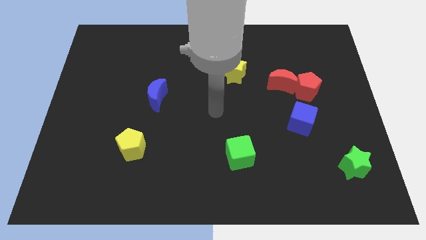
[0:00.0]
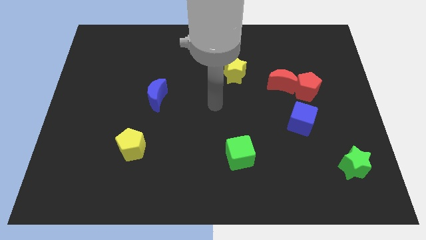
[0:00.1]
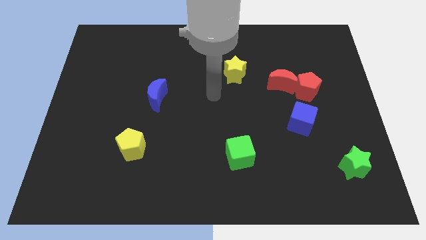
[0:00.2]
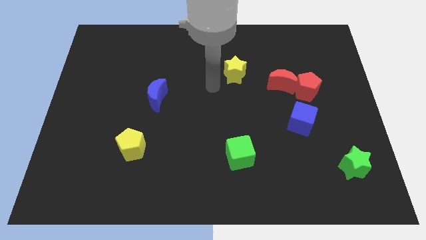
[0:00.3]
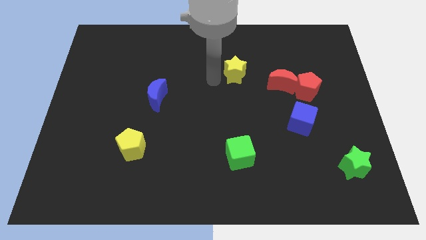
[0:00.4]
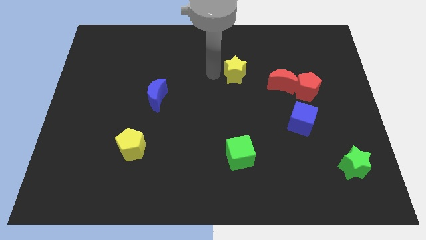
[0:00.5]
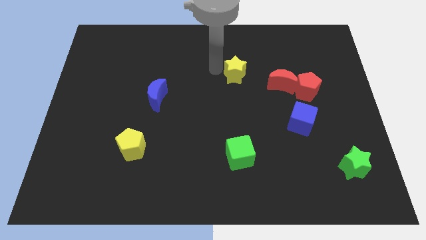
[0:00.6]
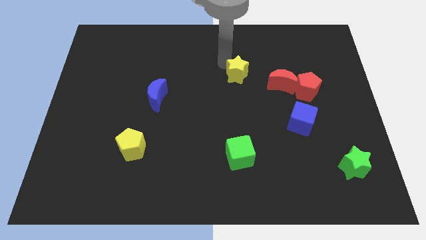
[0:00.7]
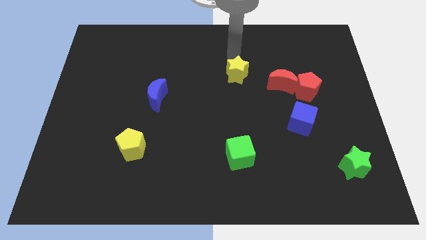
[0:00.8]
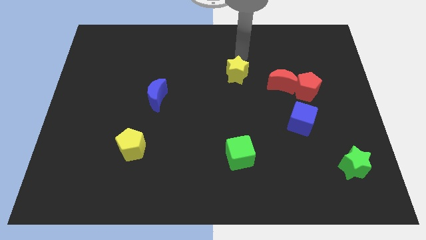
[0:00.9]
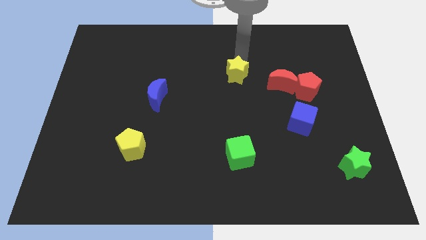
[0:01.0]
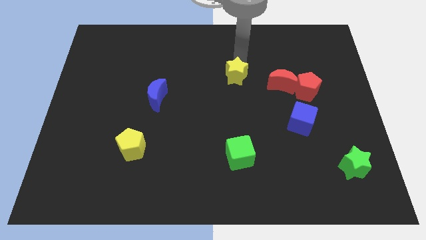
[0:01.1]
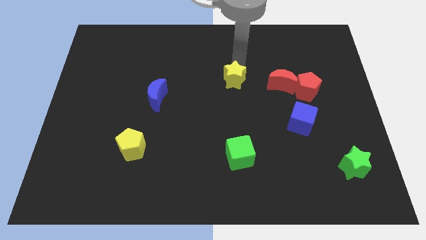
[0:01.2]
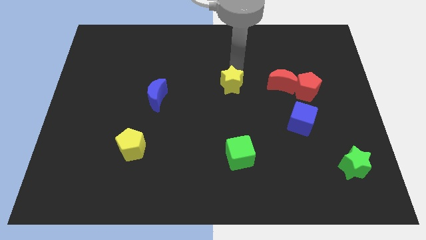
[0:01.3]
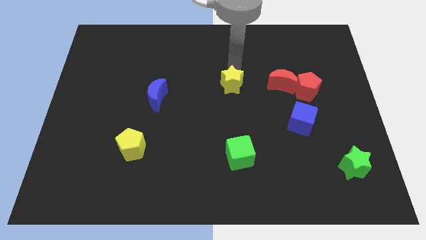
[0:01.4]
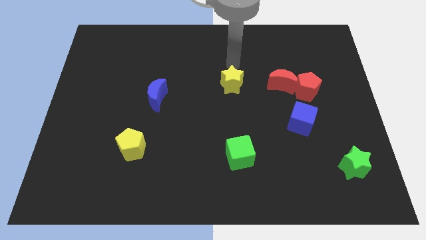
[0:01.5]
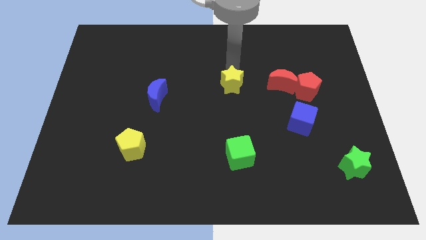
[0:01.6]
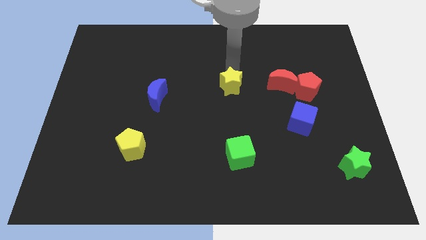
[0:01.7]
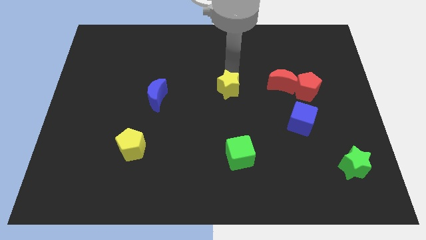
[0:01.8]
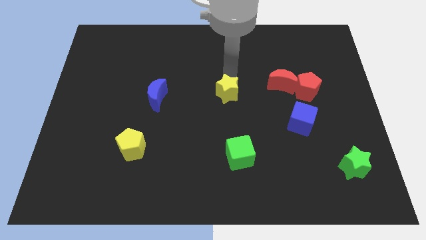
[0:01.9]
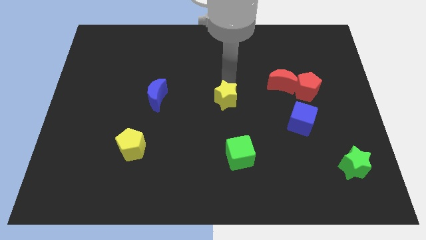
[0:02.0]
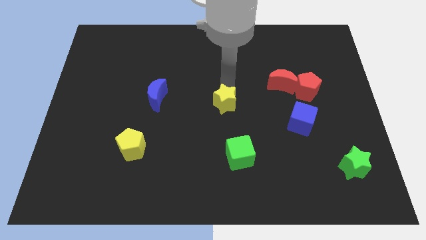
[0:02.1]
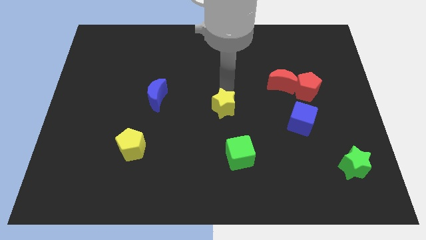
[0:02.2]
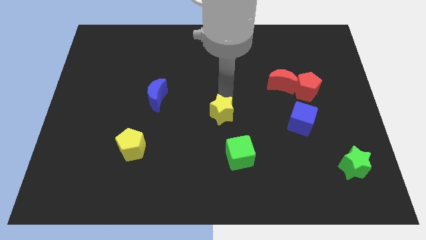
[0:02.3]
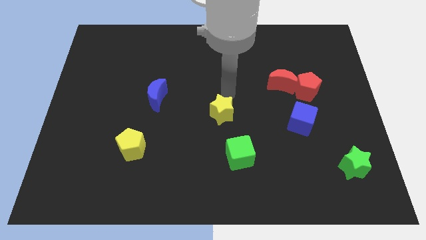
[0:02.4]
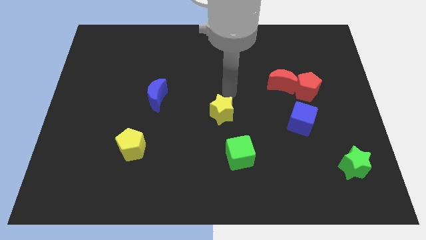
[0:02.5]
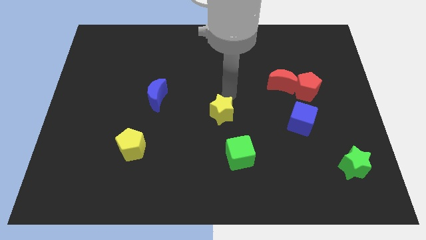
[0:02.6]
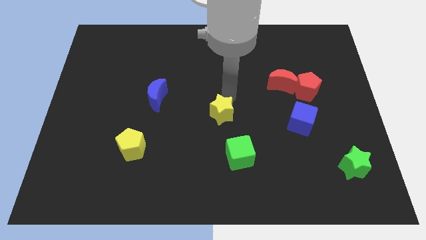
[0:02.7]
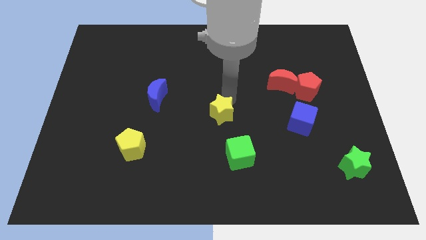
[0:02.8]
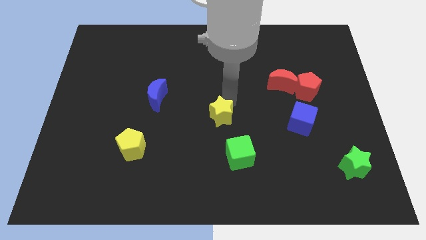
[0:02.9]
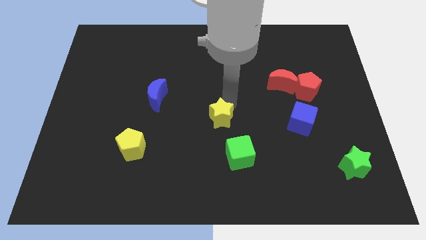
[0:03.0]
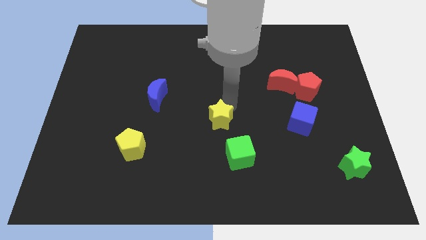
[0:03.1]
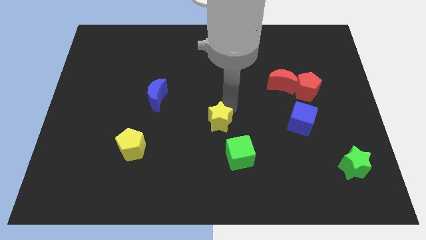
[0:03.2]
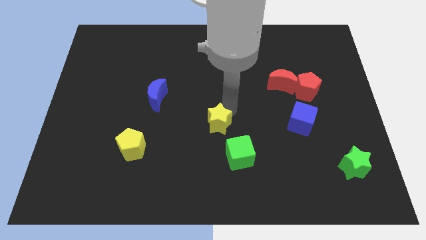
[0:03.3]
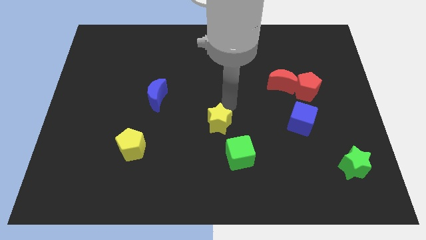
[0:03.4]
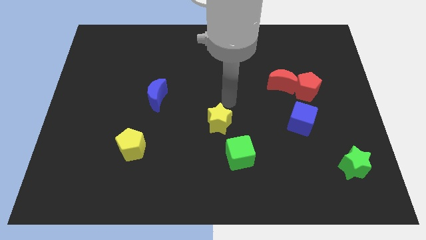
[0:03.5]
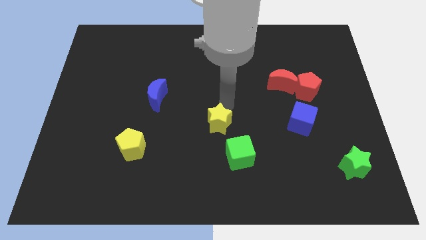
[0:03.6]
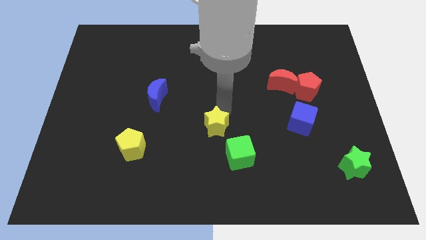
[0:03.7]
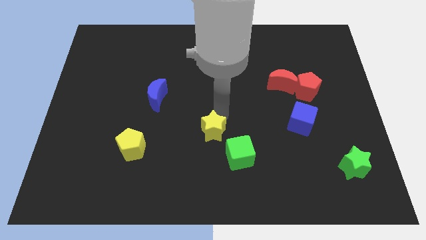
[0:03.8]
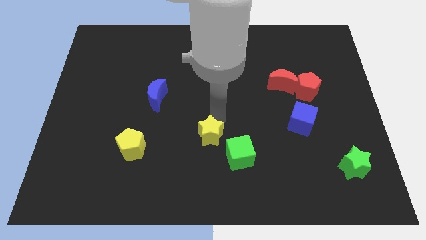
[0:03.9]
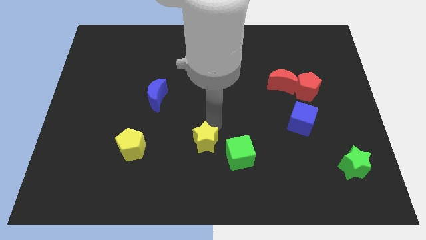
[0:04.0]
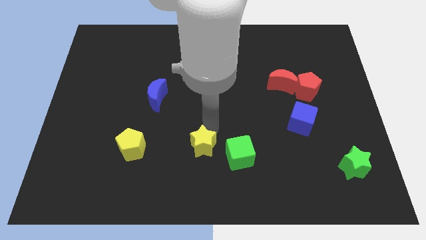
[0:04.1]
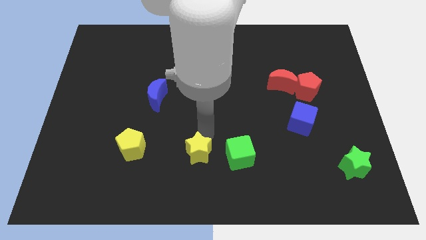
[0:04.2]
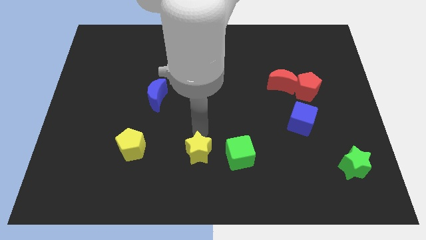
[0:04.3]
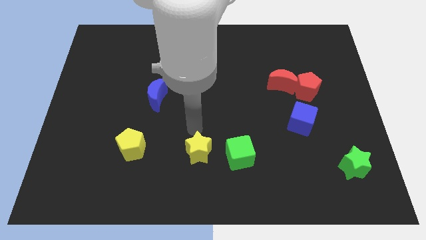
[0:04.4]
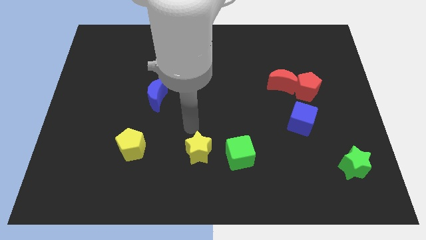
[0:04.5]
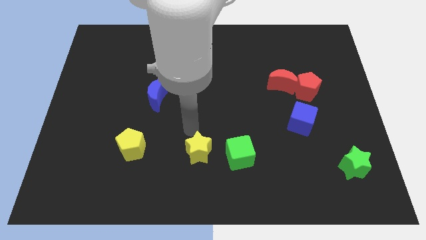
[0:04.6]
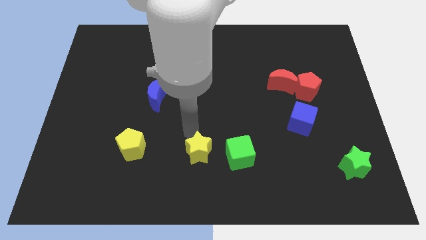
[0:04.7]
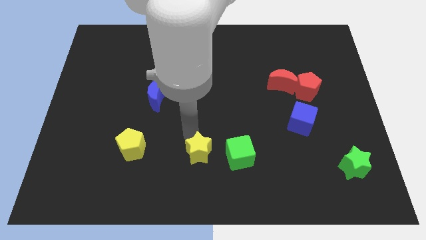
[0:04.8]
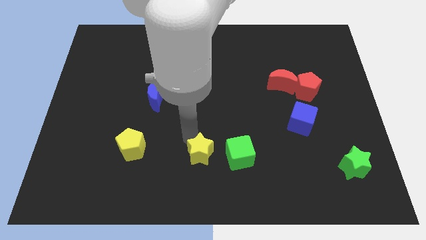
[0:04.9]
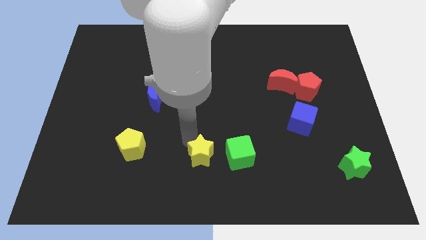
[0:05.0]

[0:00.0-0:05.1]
put the yellow star to the bottom side

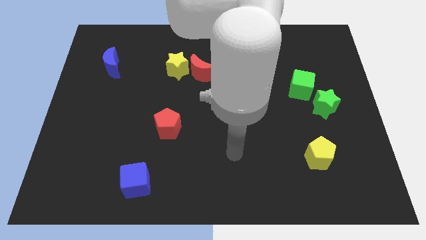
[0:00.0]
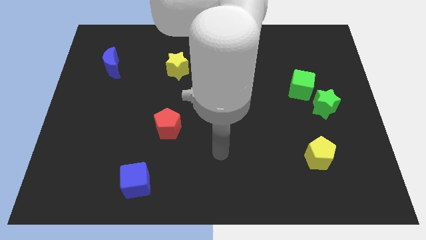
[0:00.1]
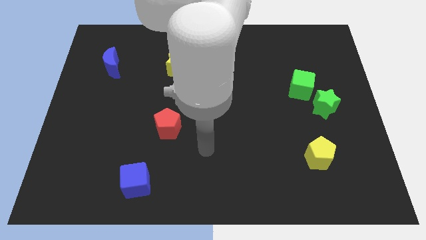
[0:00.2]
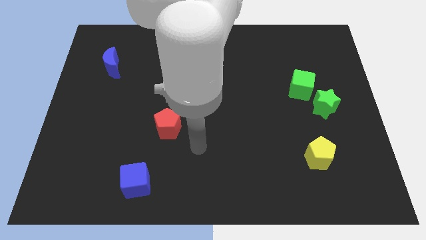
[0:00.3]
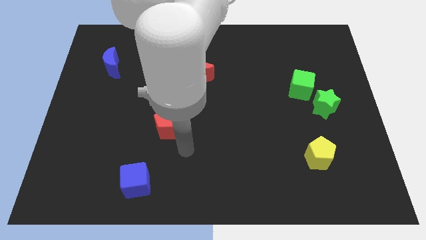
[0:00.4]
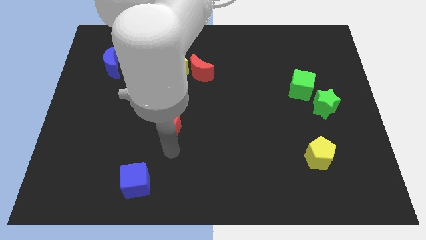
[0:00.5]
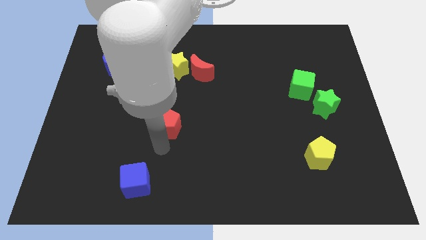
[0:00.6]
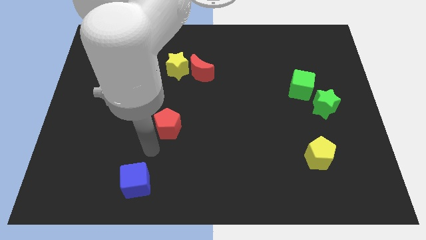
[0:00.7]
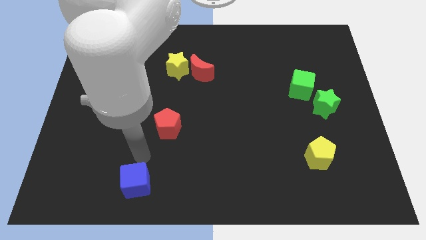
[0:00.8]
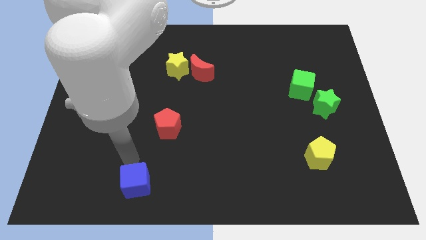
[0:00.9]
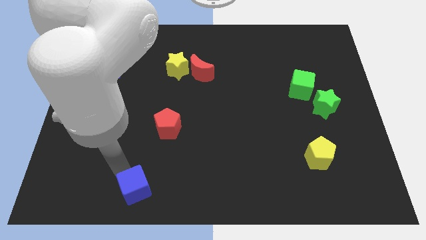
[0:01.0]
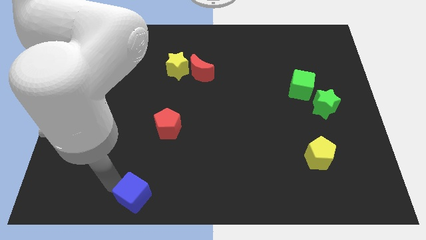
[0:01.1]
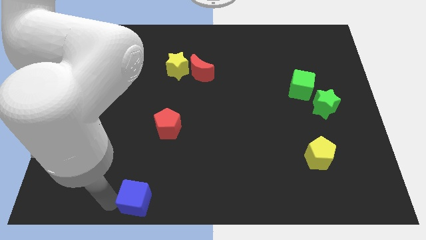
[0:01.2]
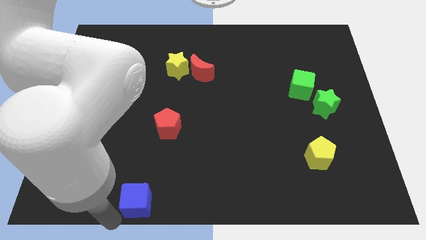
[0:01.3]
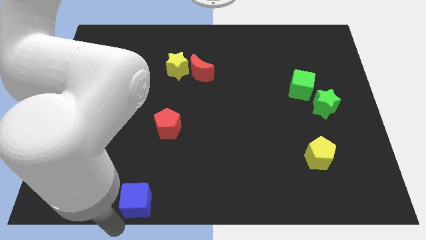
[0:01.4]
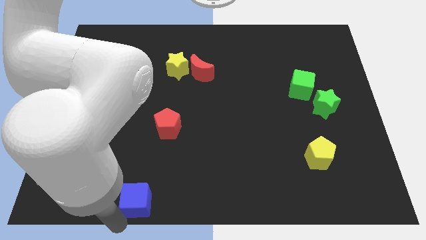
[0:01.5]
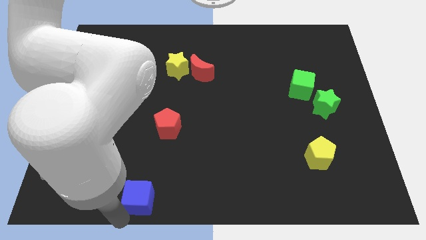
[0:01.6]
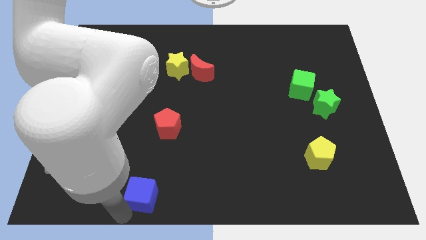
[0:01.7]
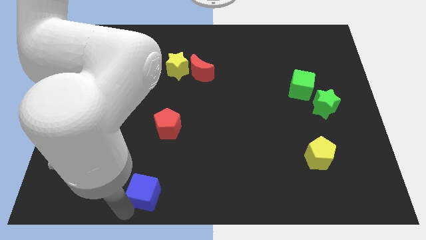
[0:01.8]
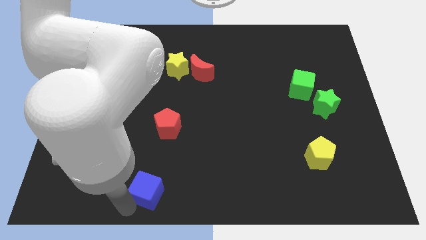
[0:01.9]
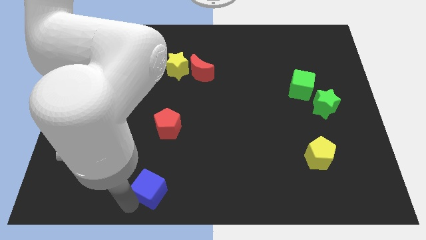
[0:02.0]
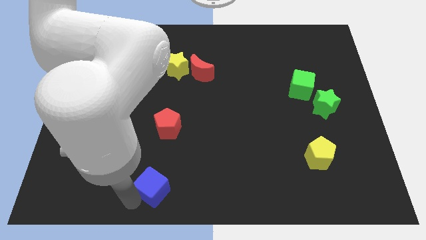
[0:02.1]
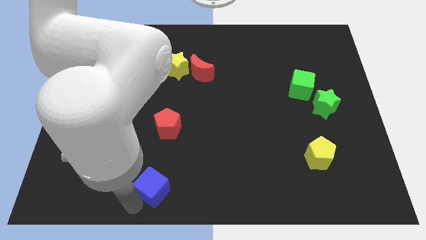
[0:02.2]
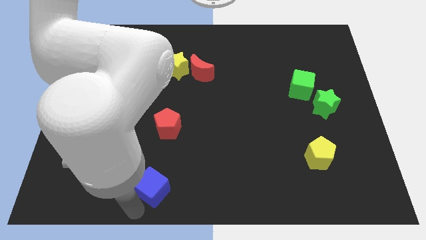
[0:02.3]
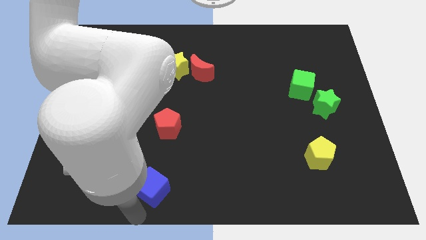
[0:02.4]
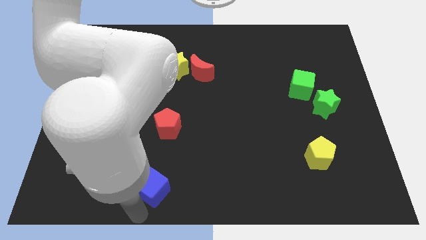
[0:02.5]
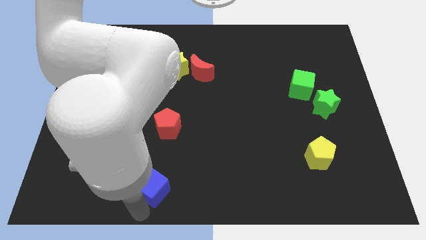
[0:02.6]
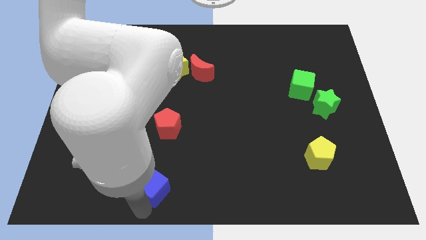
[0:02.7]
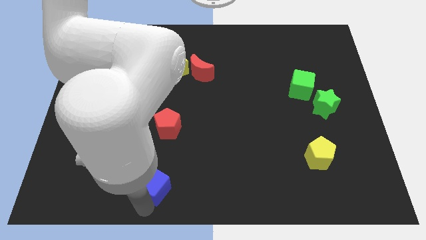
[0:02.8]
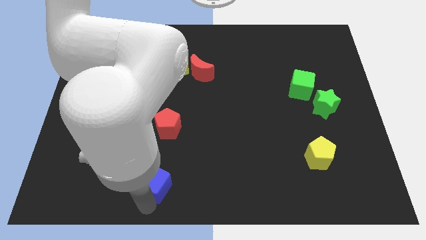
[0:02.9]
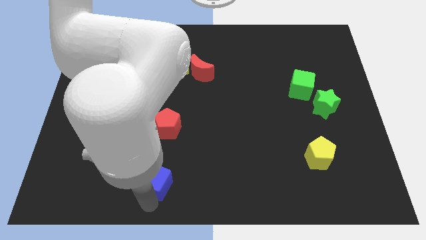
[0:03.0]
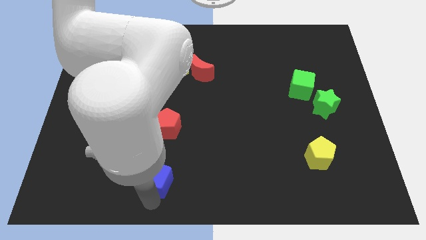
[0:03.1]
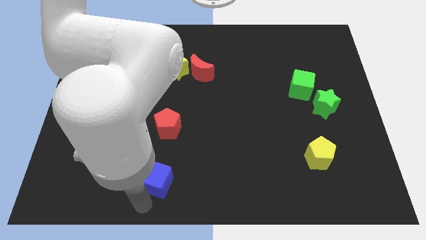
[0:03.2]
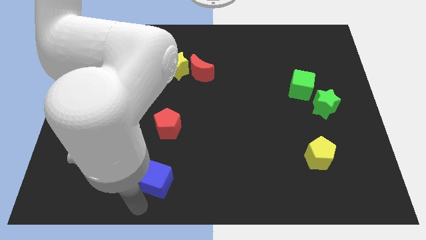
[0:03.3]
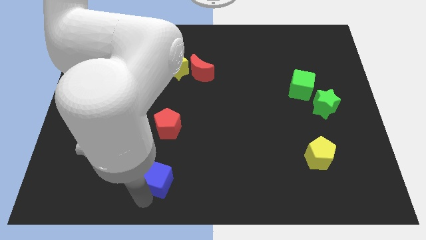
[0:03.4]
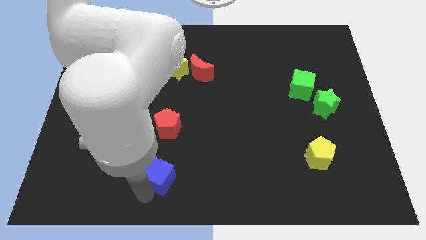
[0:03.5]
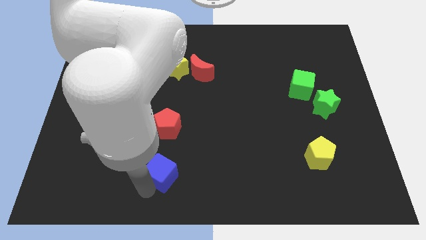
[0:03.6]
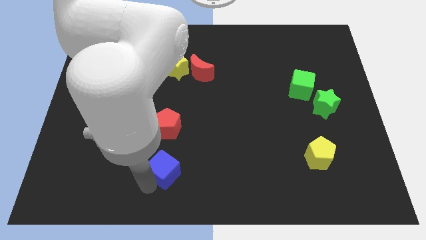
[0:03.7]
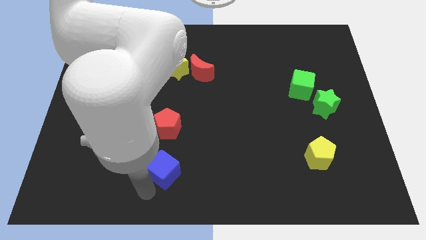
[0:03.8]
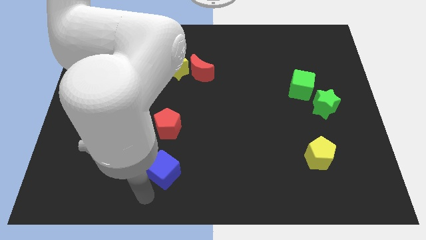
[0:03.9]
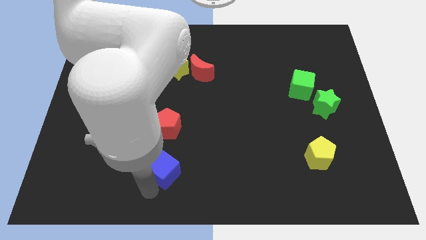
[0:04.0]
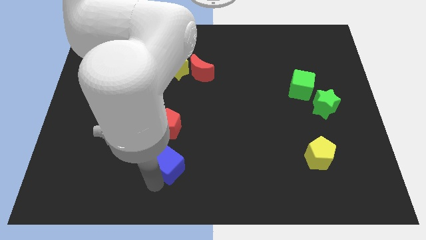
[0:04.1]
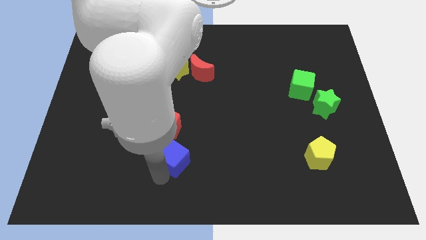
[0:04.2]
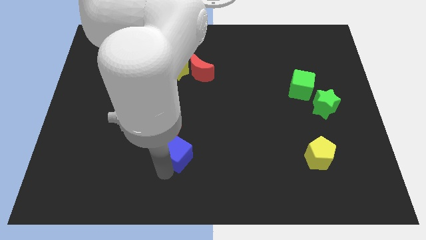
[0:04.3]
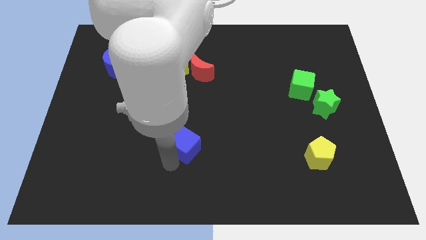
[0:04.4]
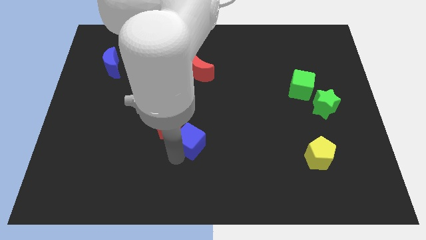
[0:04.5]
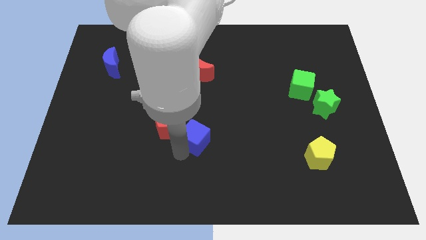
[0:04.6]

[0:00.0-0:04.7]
move the blue cube to the middle
